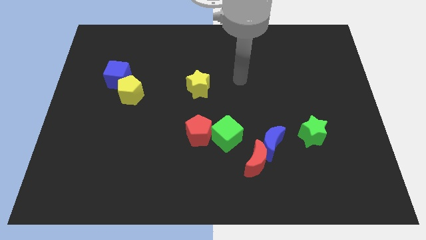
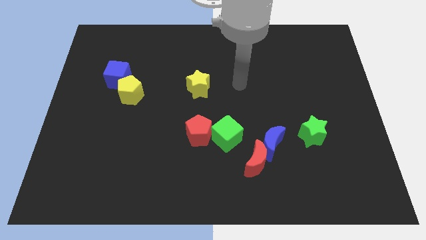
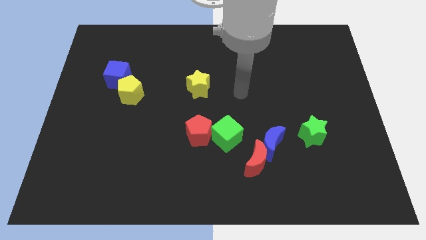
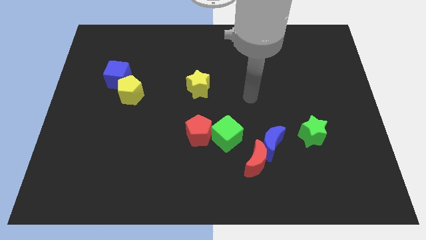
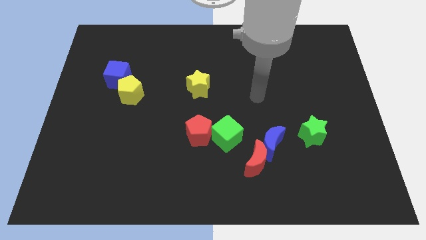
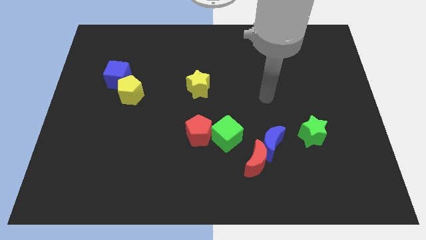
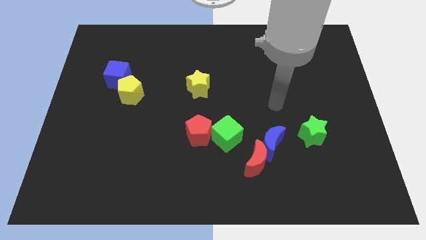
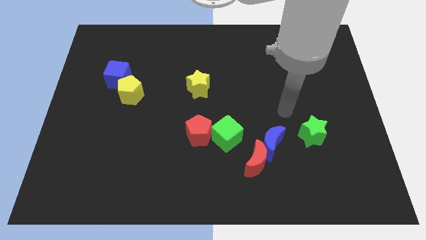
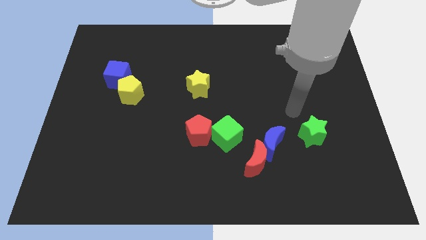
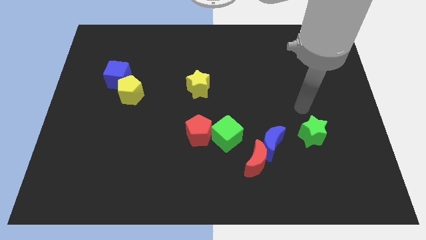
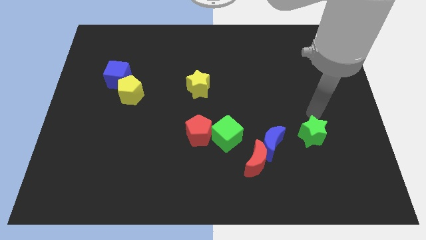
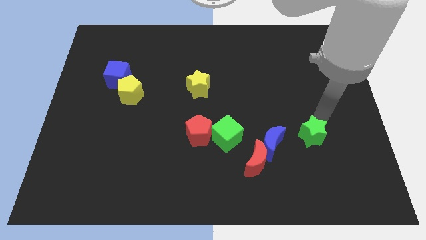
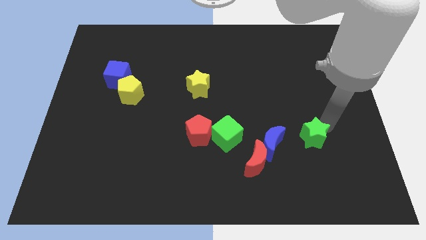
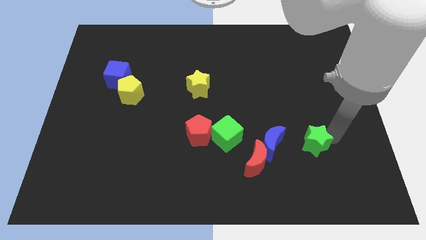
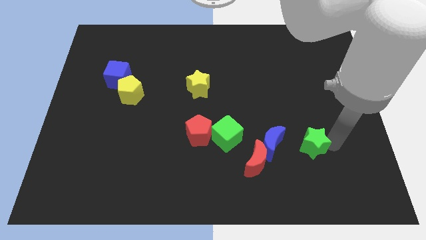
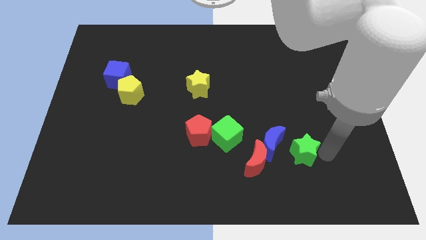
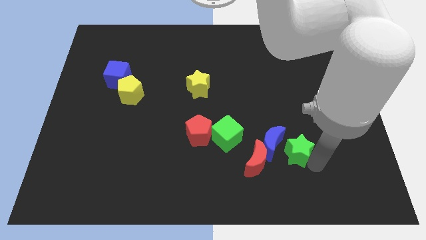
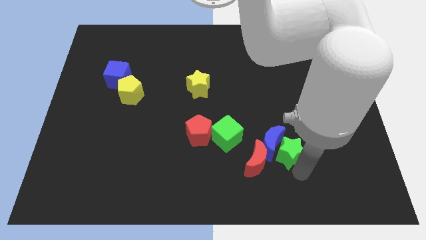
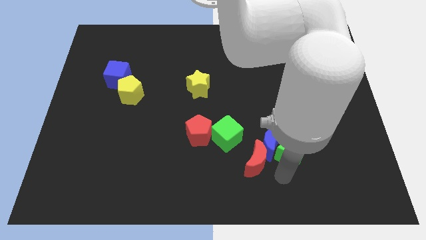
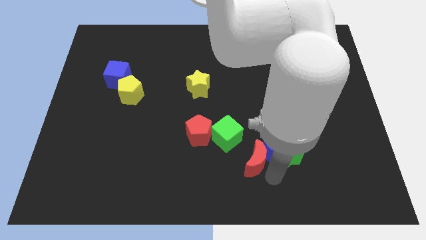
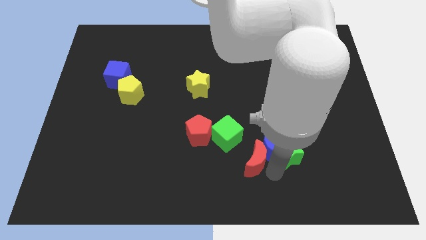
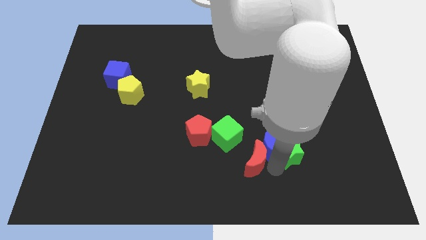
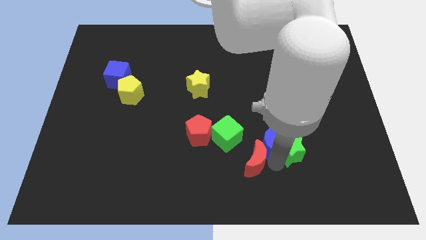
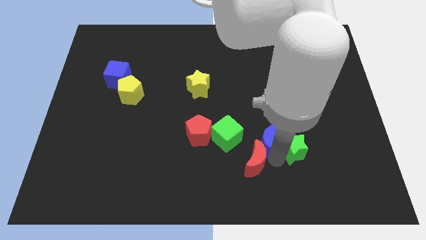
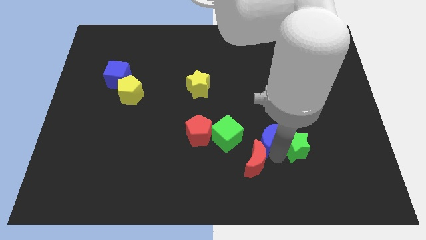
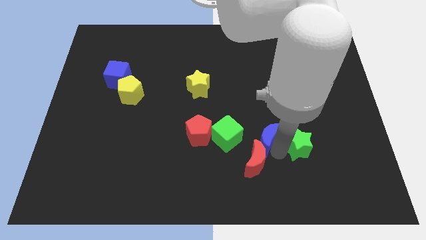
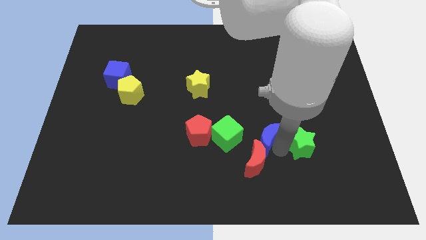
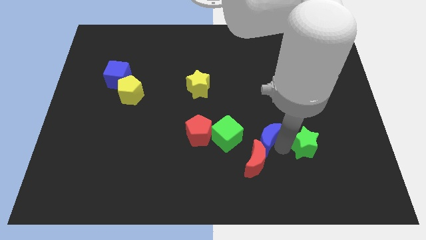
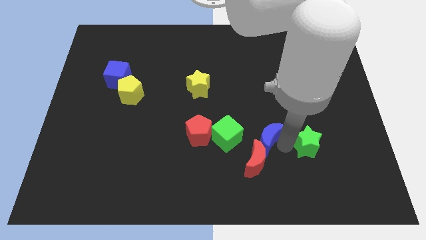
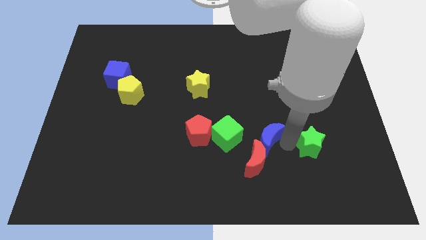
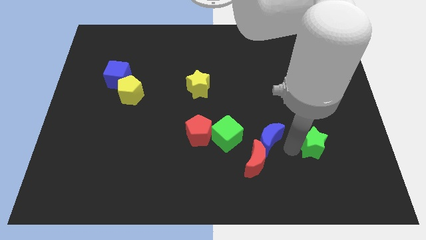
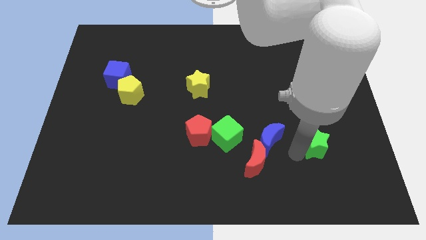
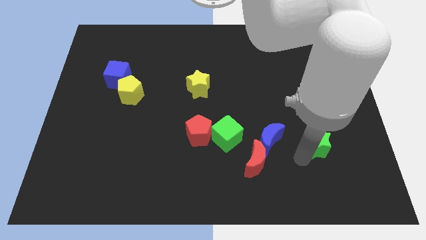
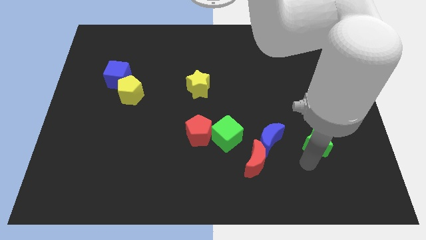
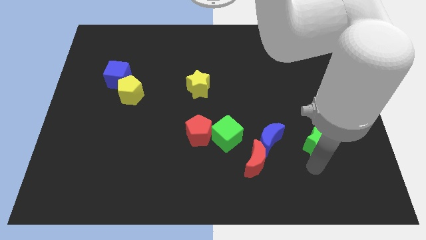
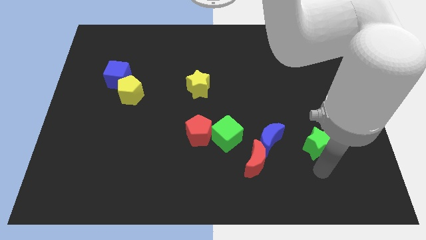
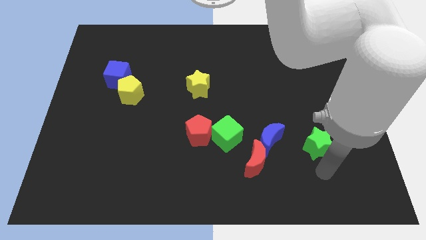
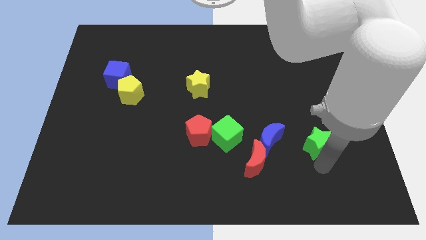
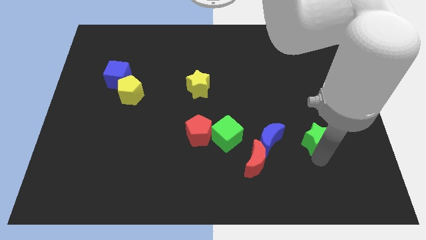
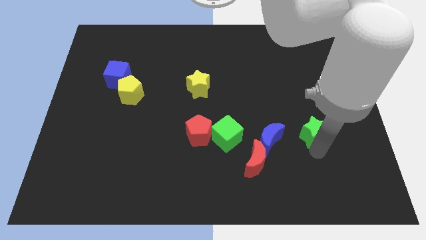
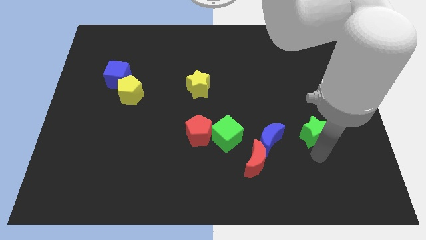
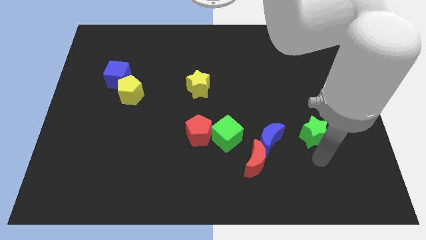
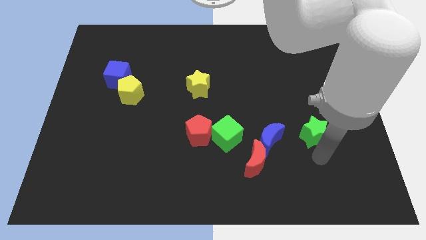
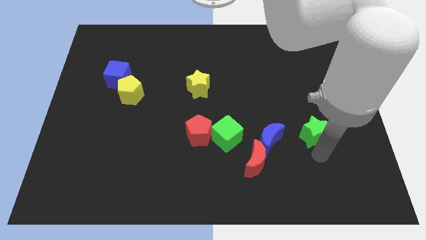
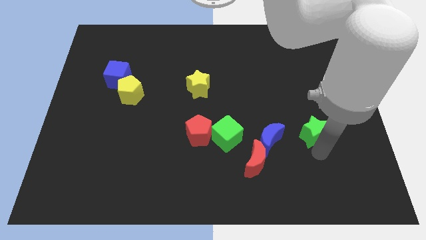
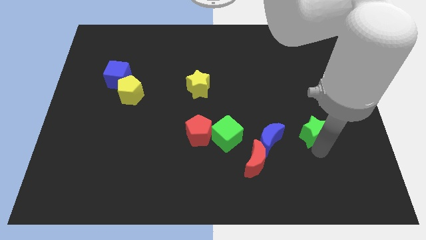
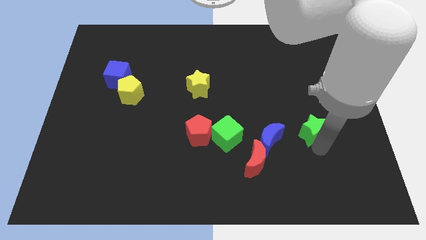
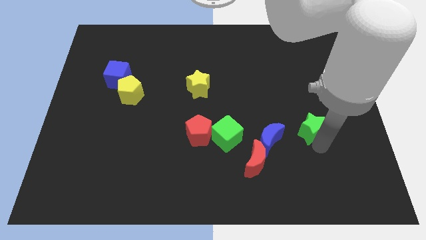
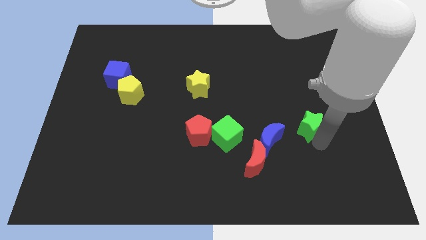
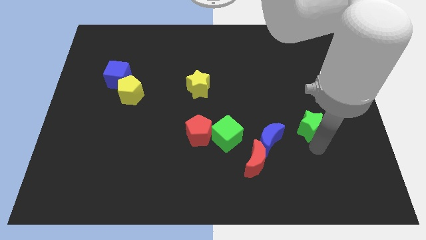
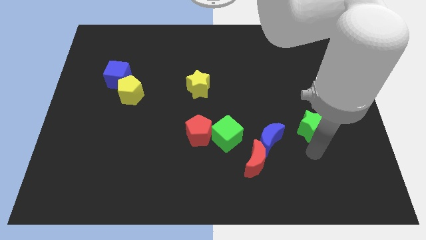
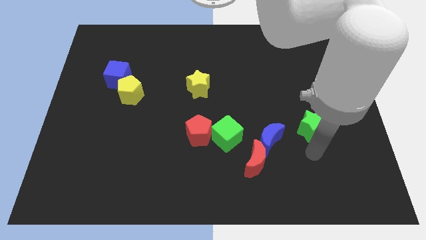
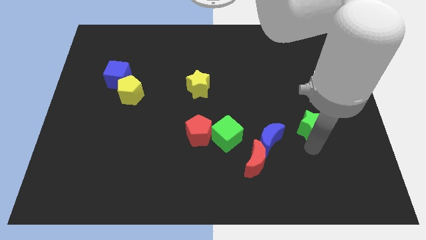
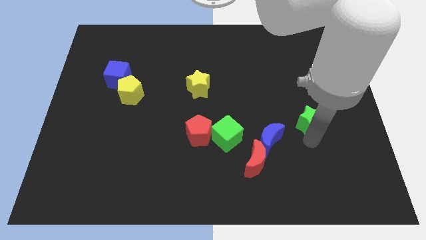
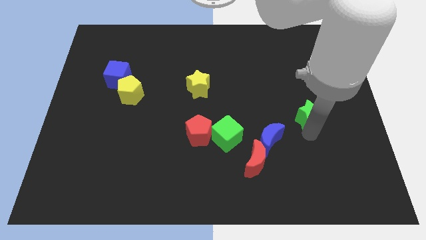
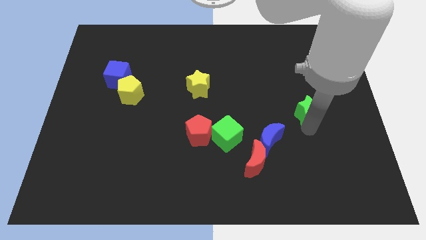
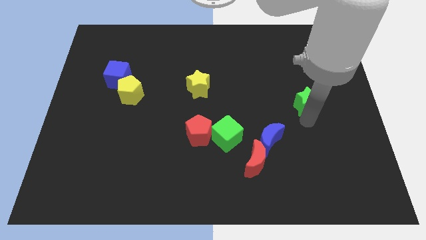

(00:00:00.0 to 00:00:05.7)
move the green star a little up

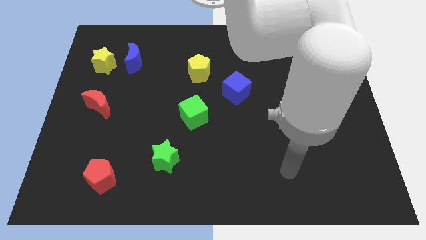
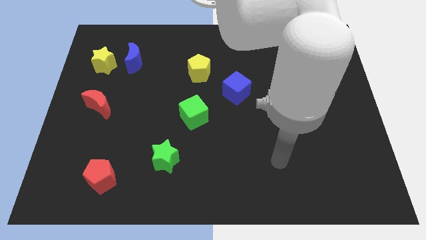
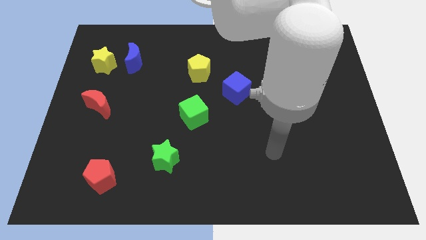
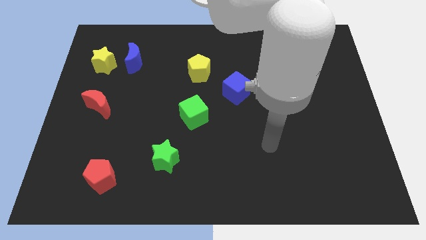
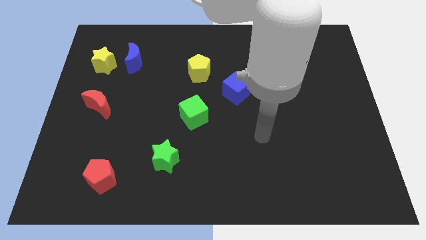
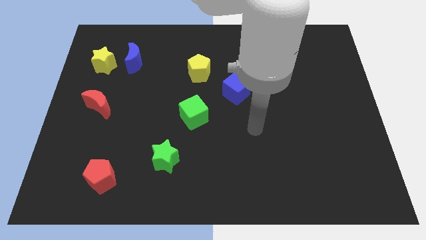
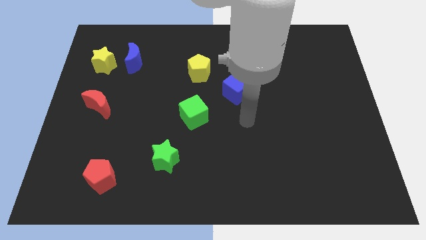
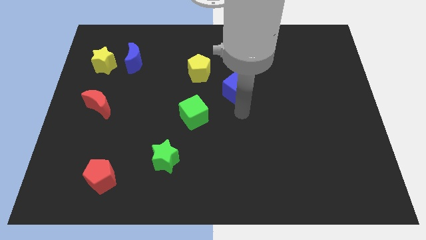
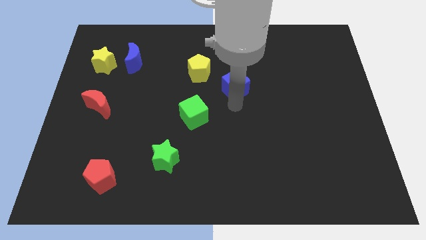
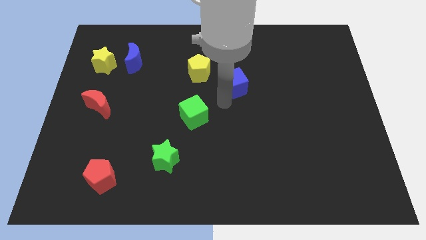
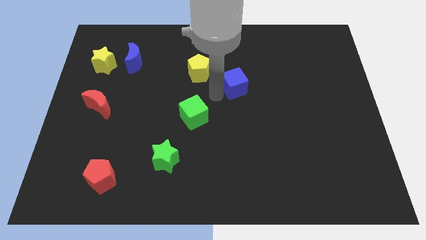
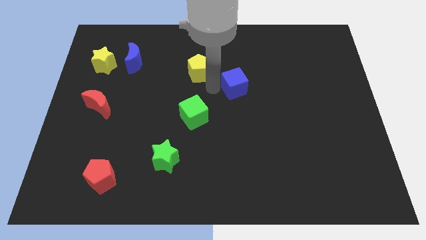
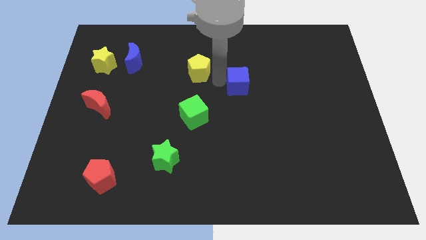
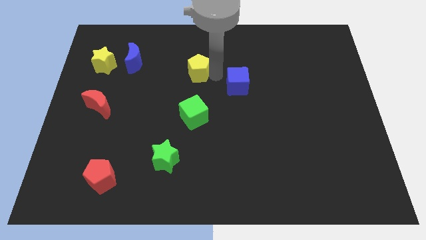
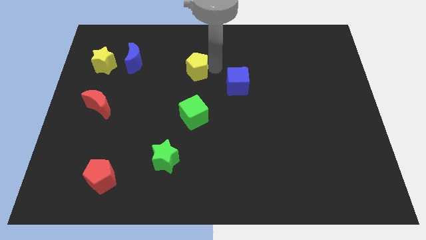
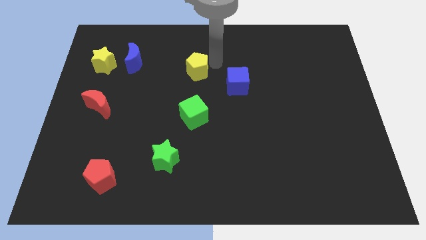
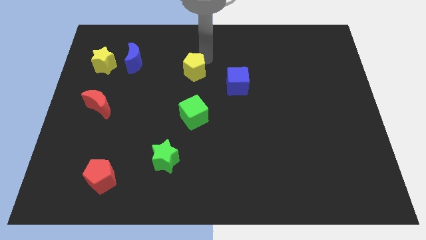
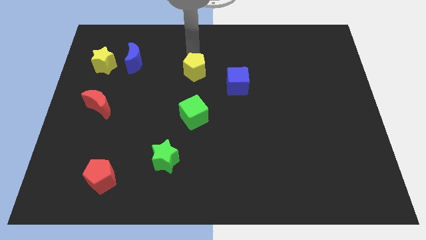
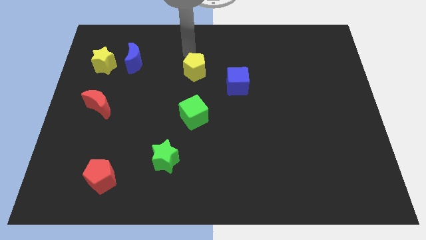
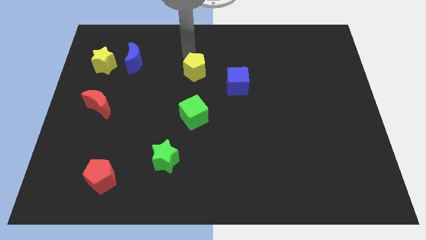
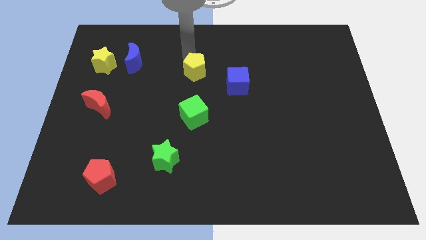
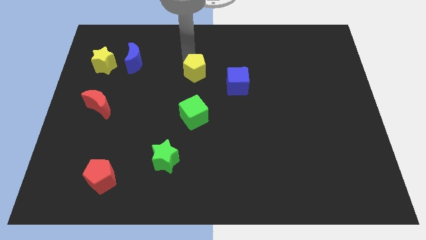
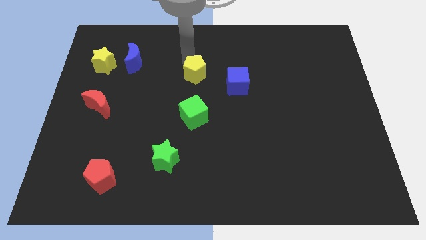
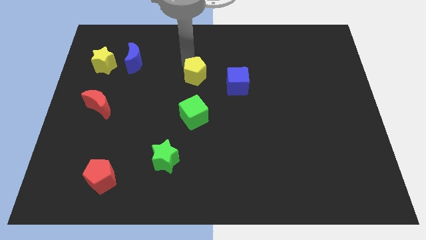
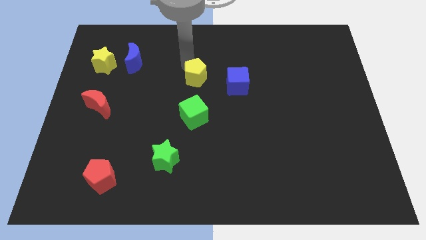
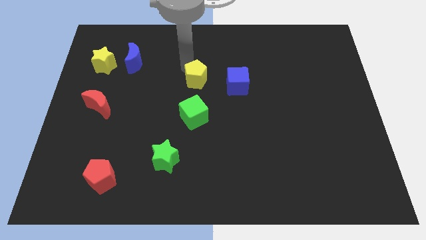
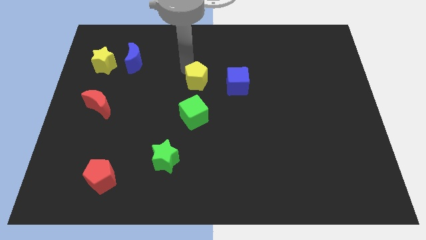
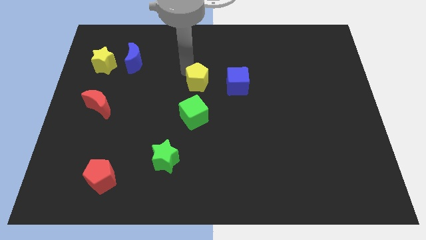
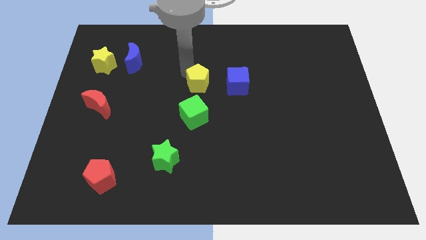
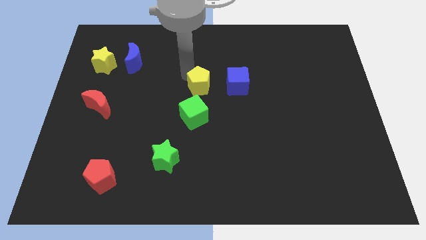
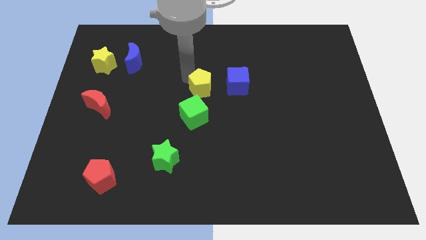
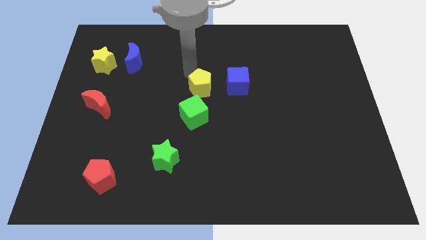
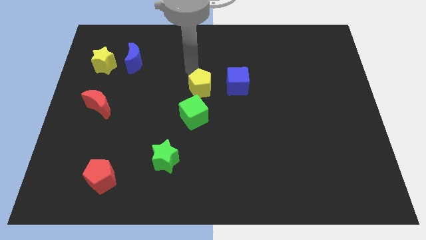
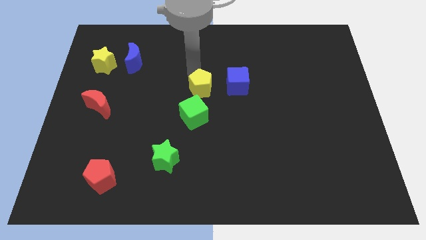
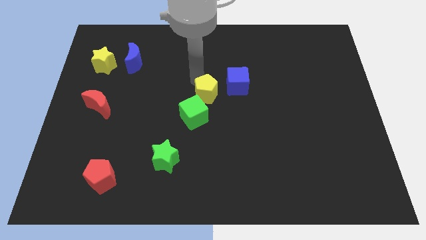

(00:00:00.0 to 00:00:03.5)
move the yellow pentagon somewhat downwards
